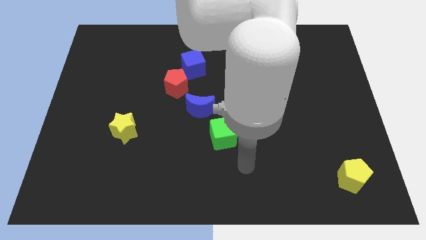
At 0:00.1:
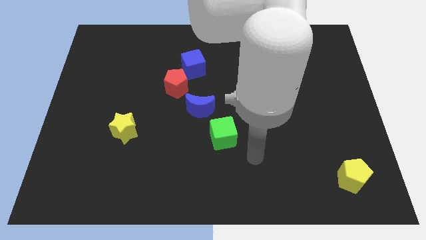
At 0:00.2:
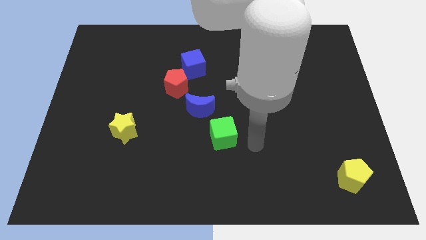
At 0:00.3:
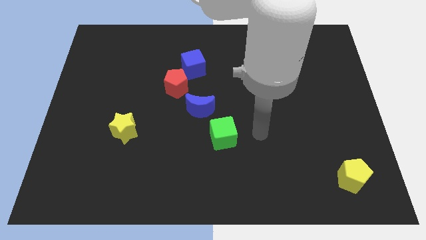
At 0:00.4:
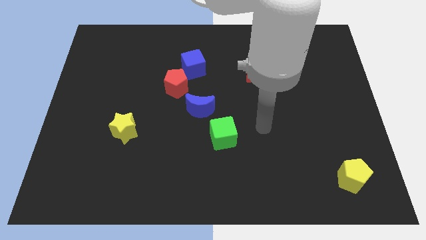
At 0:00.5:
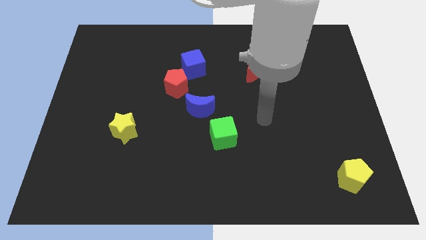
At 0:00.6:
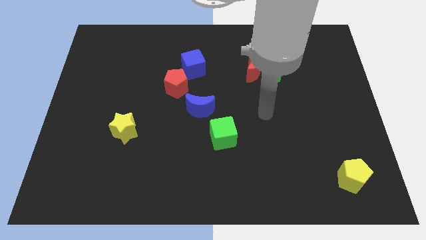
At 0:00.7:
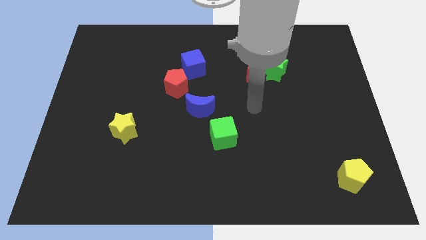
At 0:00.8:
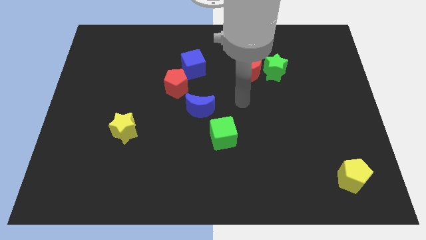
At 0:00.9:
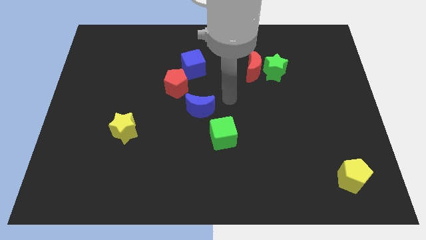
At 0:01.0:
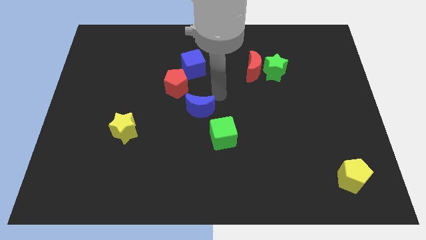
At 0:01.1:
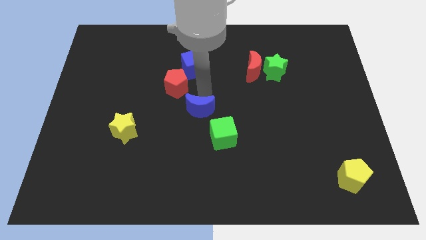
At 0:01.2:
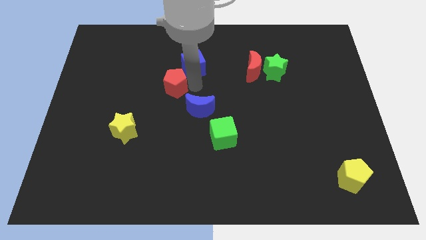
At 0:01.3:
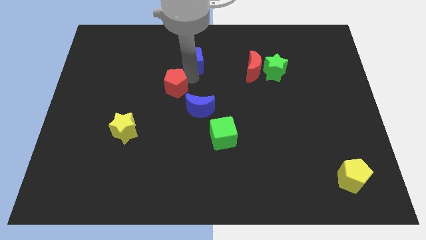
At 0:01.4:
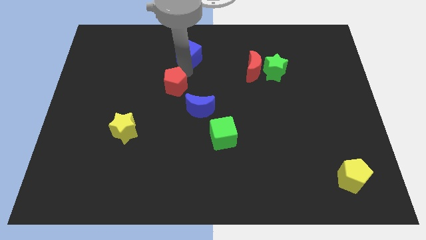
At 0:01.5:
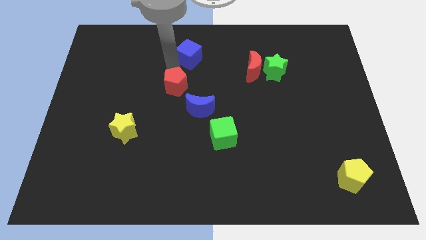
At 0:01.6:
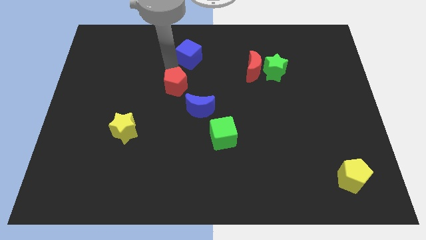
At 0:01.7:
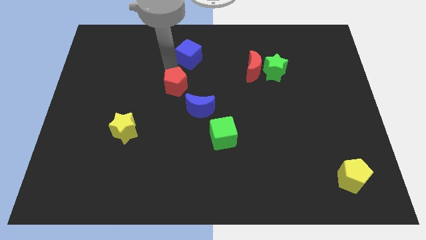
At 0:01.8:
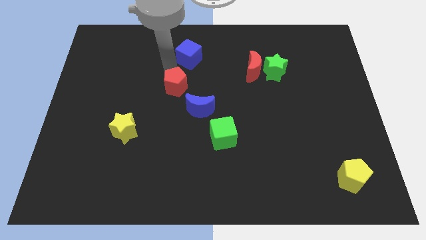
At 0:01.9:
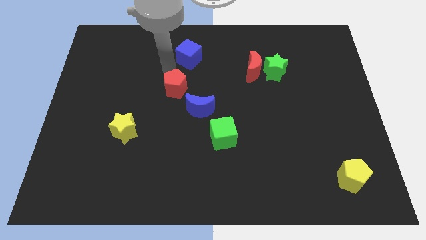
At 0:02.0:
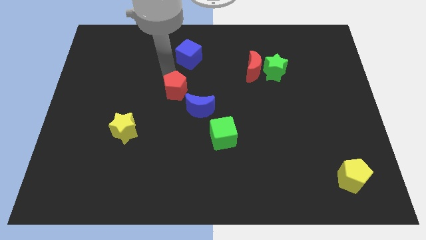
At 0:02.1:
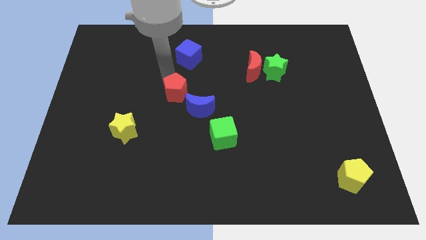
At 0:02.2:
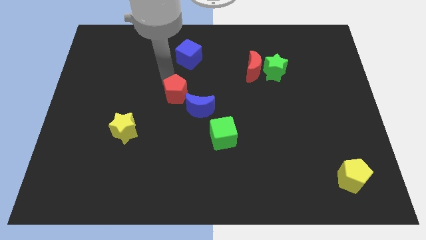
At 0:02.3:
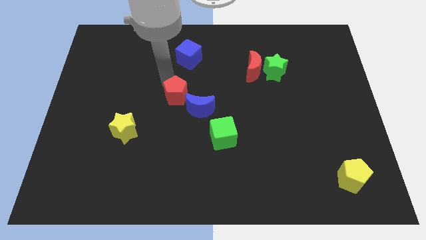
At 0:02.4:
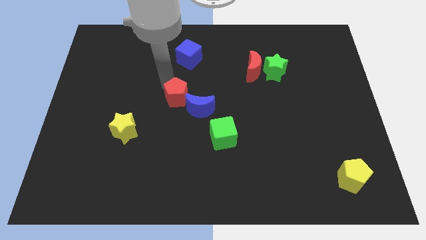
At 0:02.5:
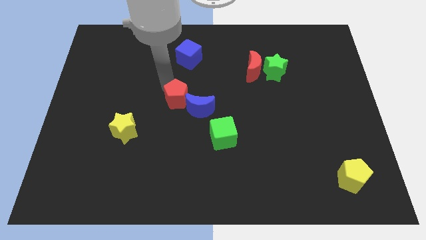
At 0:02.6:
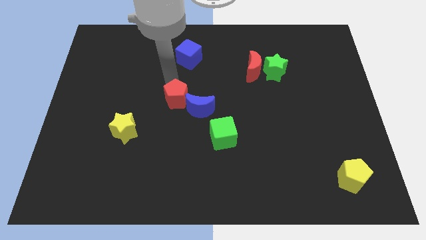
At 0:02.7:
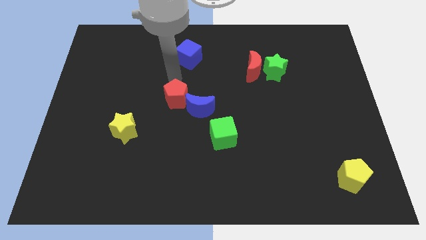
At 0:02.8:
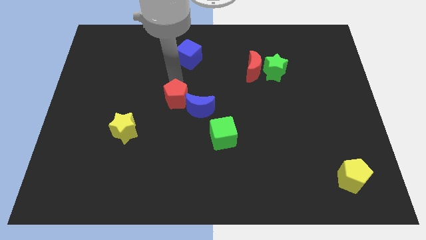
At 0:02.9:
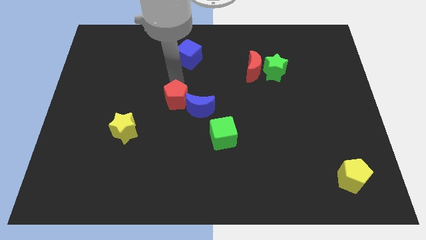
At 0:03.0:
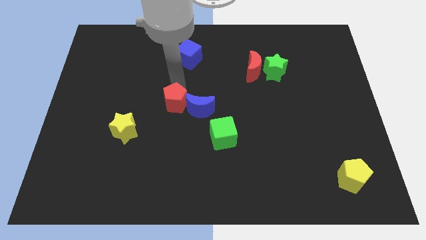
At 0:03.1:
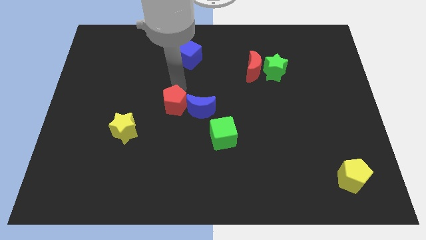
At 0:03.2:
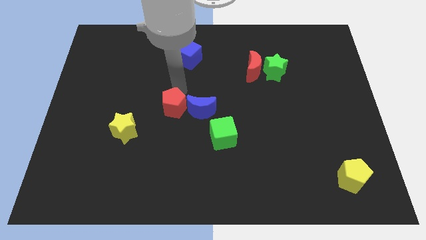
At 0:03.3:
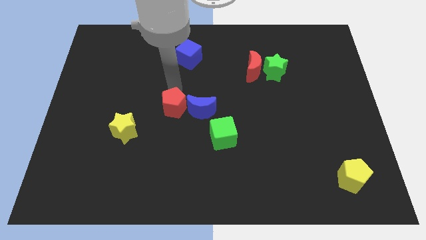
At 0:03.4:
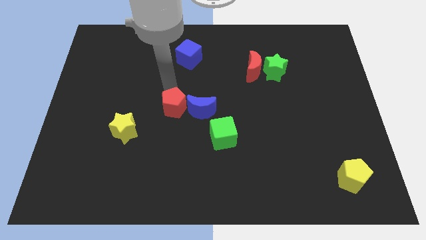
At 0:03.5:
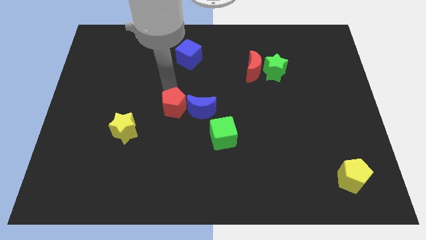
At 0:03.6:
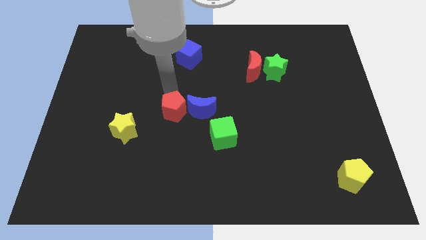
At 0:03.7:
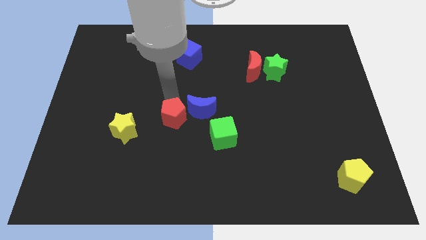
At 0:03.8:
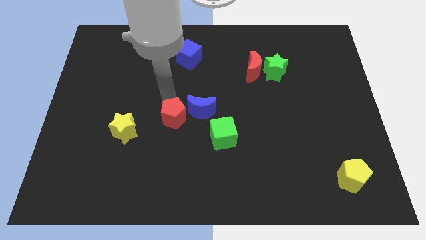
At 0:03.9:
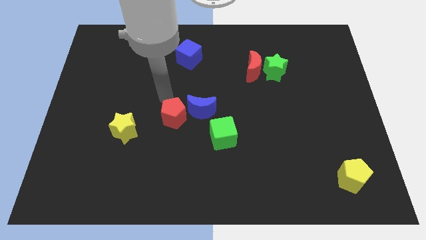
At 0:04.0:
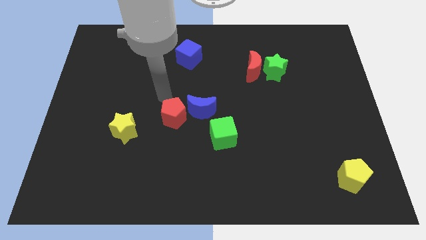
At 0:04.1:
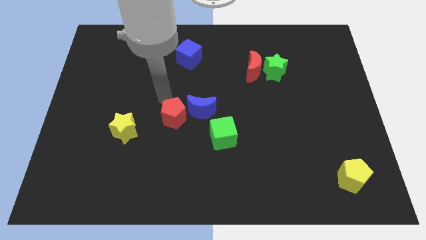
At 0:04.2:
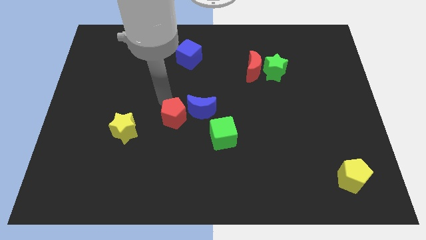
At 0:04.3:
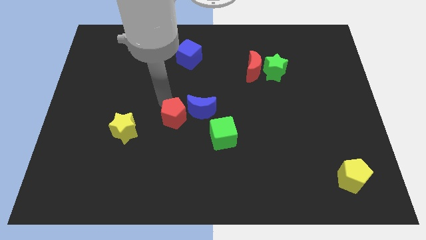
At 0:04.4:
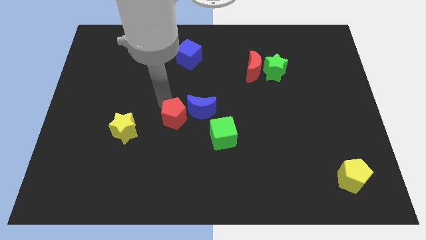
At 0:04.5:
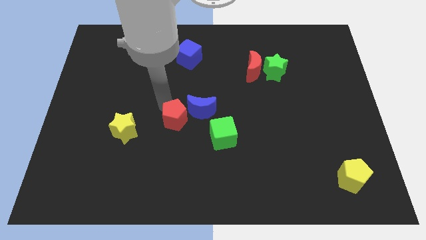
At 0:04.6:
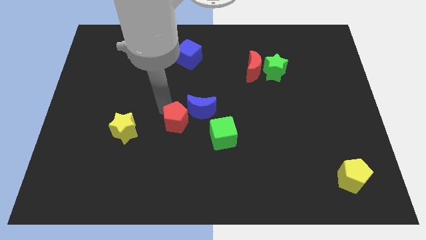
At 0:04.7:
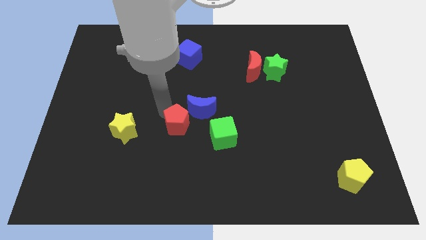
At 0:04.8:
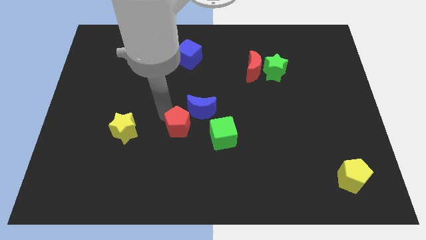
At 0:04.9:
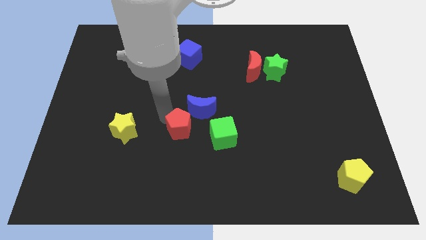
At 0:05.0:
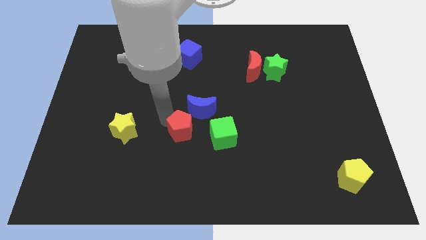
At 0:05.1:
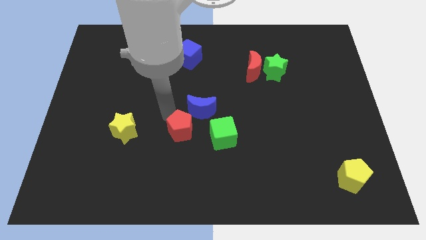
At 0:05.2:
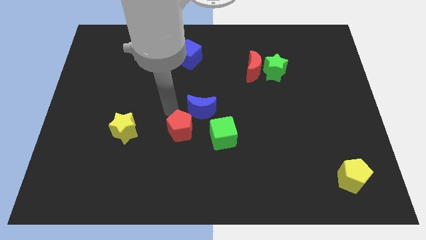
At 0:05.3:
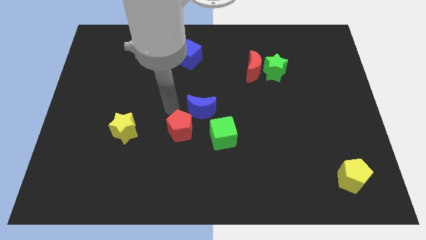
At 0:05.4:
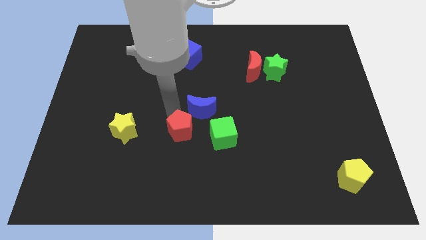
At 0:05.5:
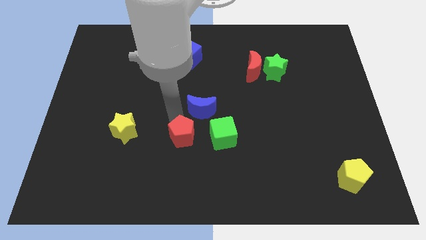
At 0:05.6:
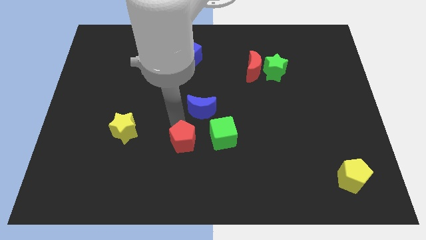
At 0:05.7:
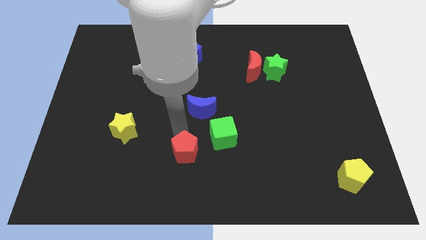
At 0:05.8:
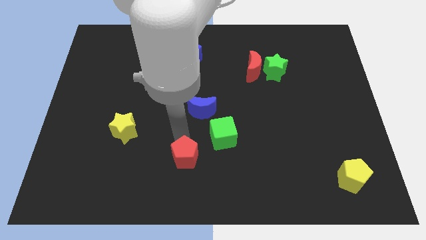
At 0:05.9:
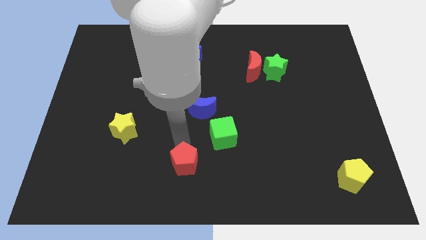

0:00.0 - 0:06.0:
put the red pentagon to the bottom side

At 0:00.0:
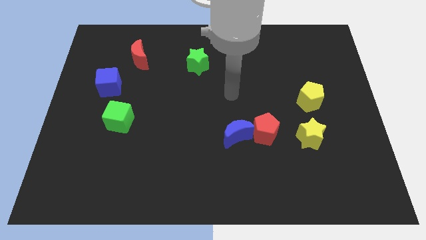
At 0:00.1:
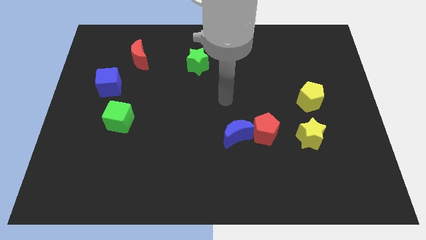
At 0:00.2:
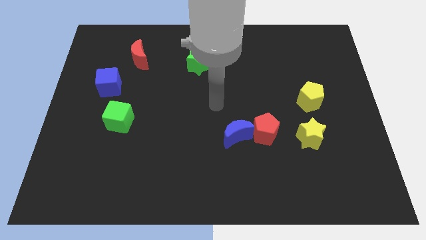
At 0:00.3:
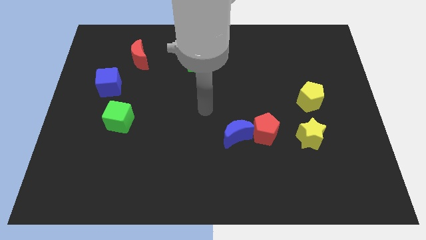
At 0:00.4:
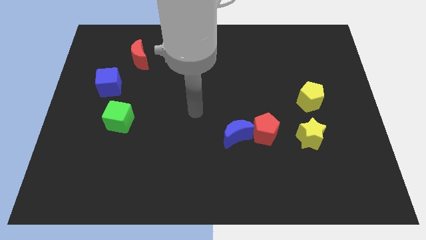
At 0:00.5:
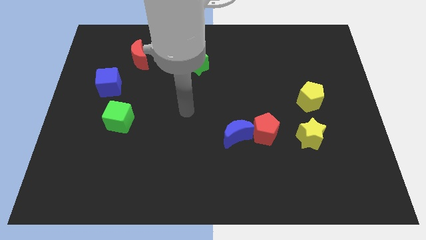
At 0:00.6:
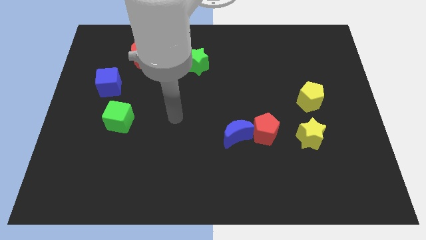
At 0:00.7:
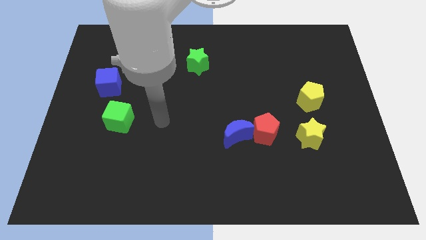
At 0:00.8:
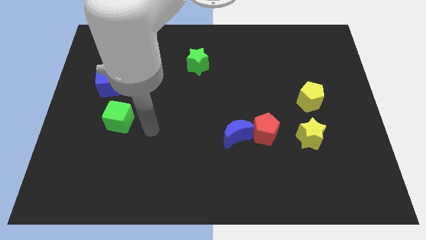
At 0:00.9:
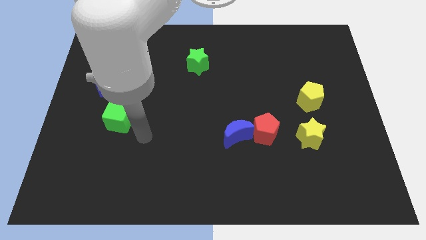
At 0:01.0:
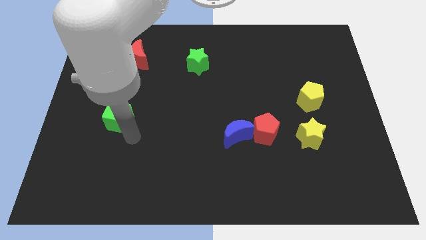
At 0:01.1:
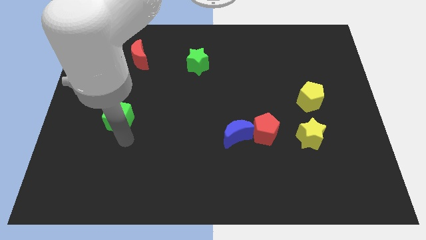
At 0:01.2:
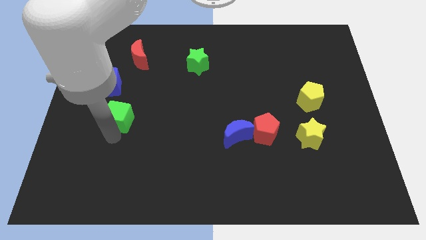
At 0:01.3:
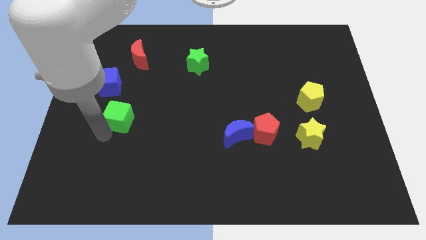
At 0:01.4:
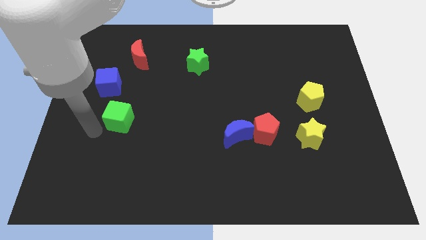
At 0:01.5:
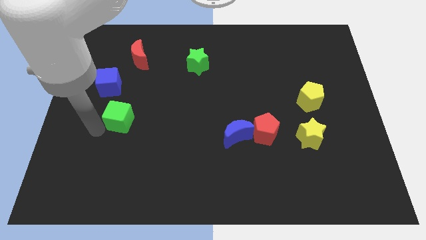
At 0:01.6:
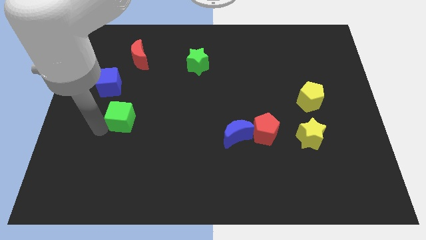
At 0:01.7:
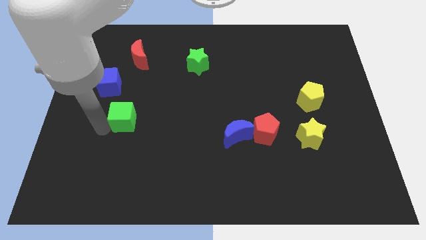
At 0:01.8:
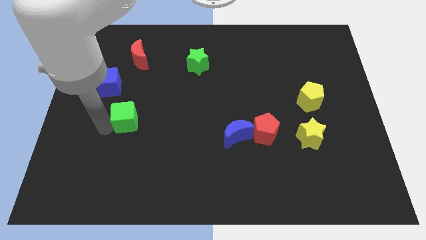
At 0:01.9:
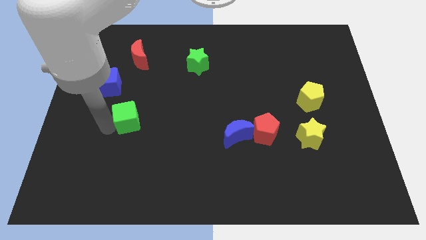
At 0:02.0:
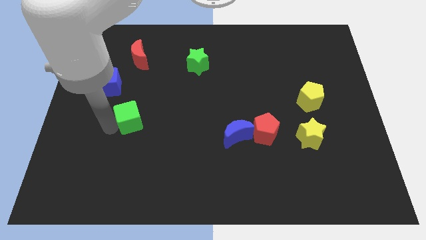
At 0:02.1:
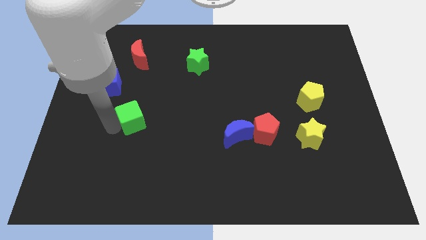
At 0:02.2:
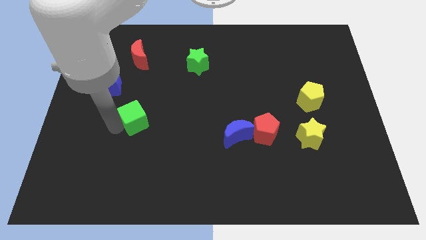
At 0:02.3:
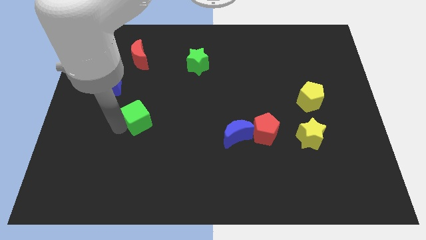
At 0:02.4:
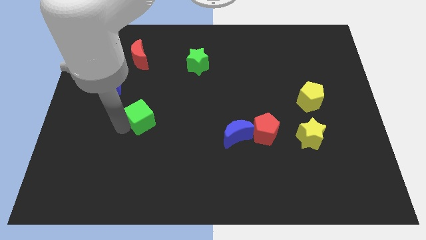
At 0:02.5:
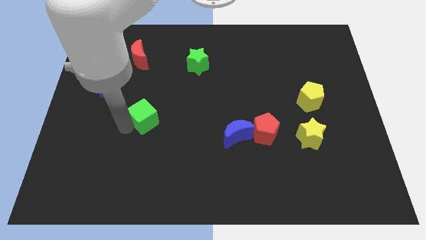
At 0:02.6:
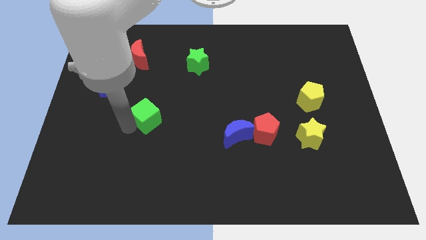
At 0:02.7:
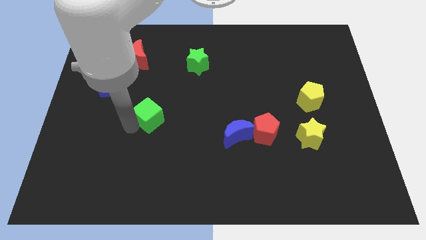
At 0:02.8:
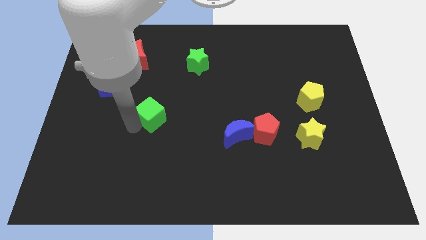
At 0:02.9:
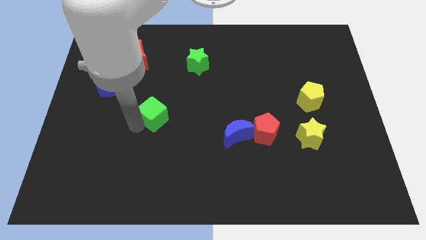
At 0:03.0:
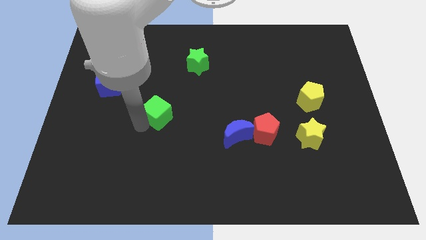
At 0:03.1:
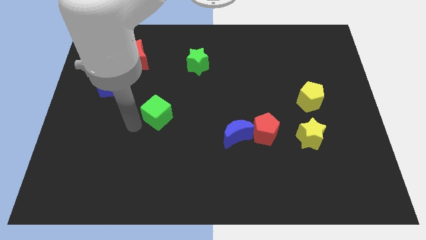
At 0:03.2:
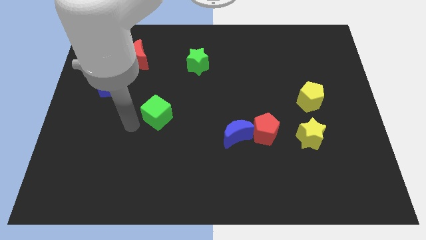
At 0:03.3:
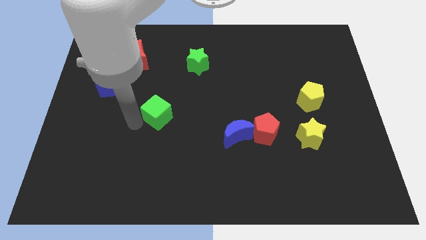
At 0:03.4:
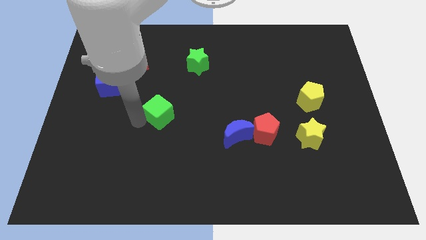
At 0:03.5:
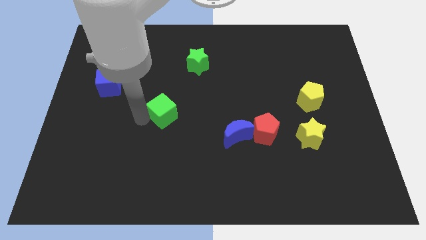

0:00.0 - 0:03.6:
move the green cube to the center
